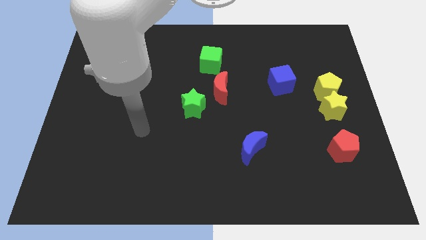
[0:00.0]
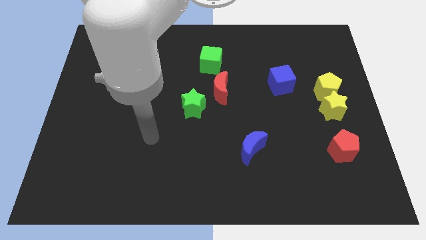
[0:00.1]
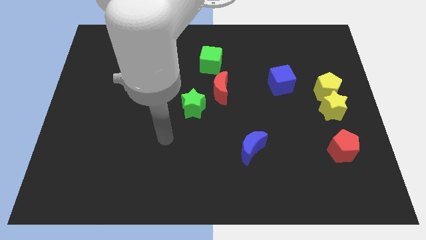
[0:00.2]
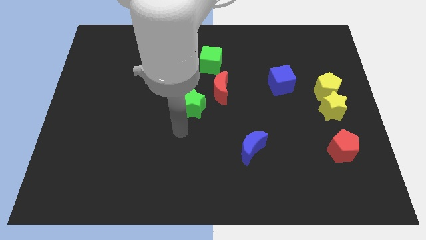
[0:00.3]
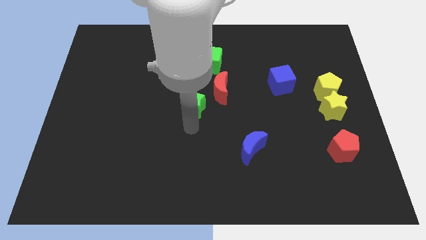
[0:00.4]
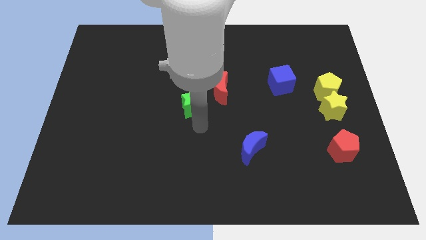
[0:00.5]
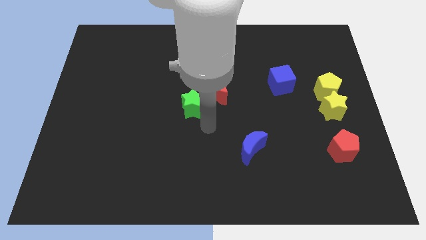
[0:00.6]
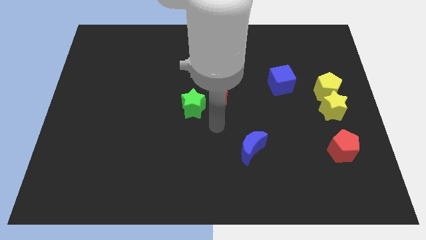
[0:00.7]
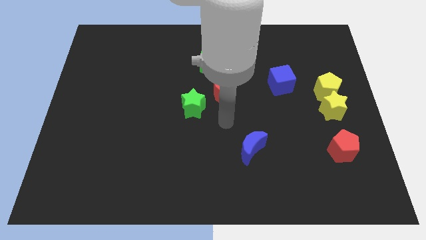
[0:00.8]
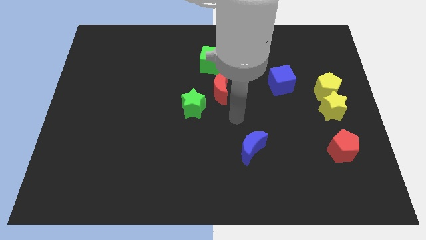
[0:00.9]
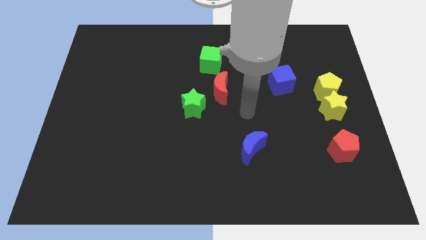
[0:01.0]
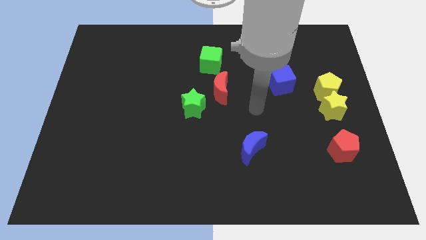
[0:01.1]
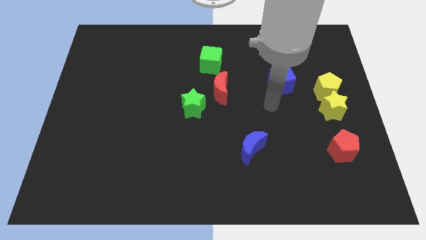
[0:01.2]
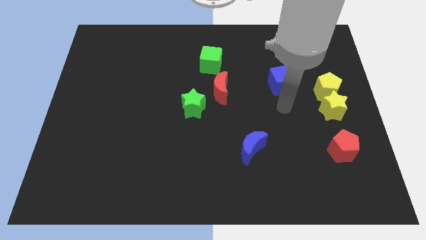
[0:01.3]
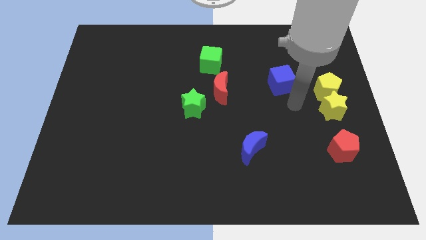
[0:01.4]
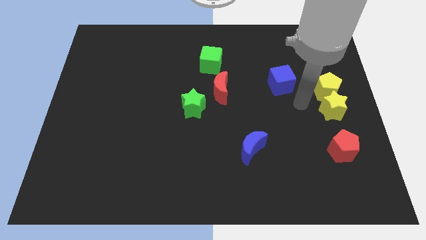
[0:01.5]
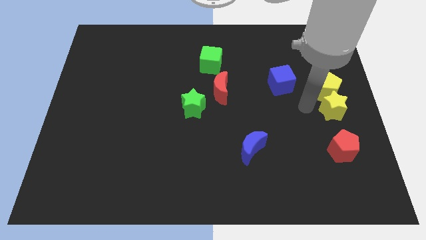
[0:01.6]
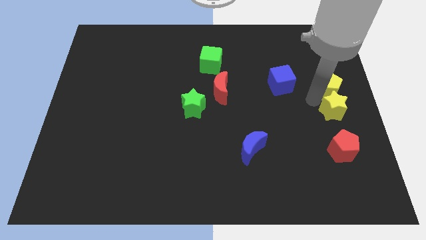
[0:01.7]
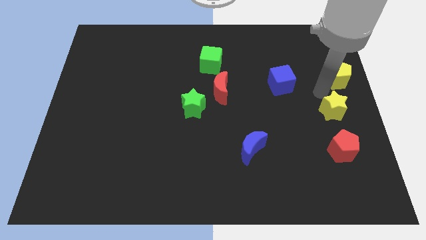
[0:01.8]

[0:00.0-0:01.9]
move the yellow star away from the yellow pentagon

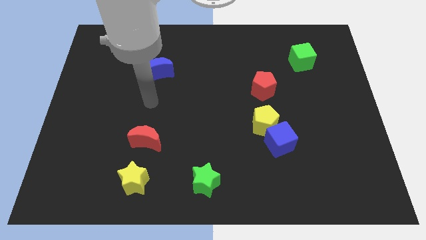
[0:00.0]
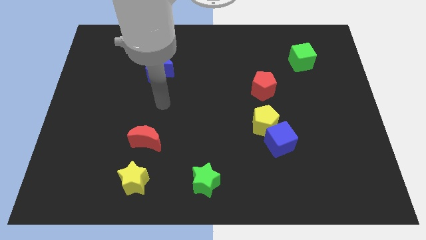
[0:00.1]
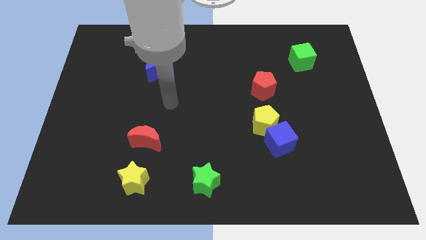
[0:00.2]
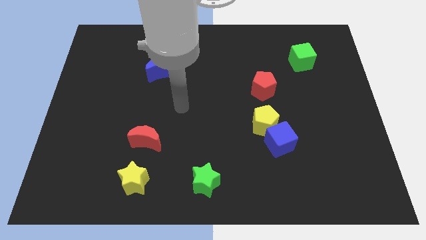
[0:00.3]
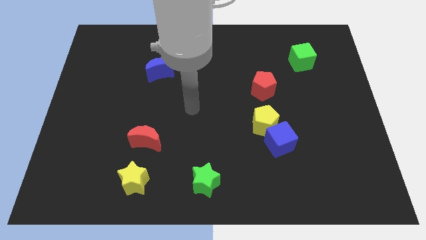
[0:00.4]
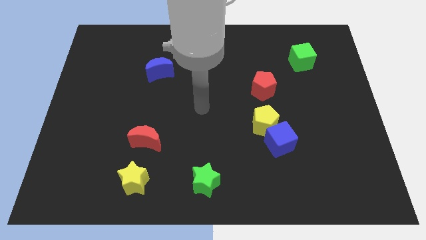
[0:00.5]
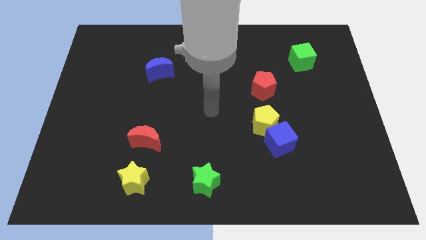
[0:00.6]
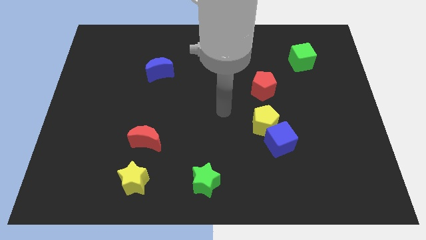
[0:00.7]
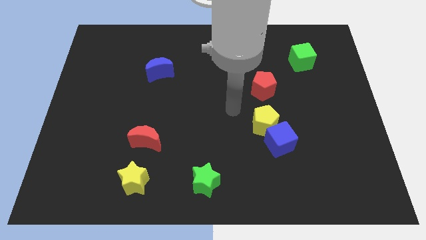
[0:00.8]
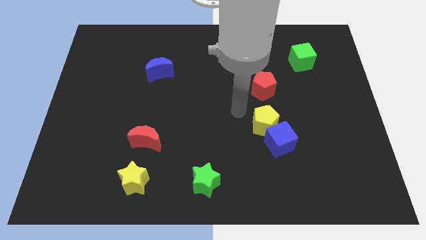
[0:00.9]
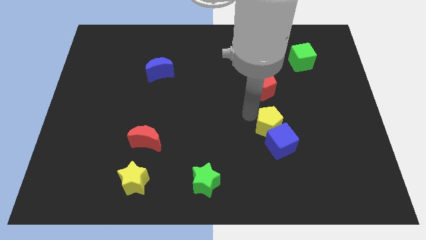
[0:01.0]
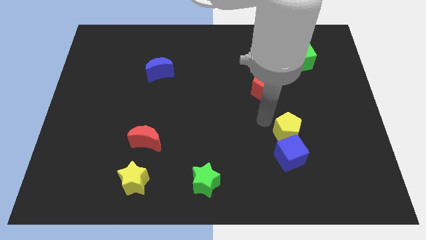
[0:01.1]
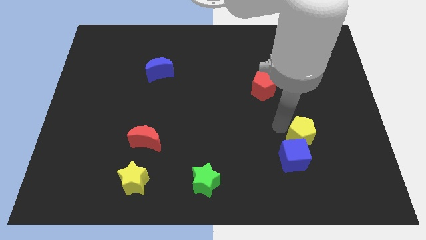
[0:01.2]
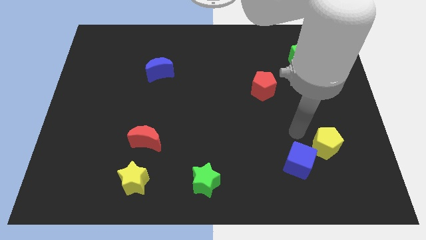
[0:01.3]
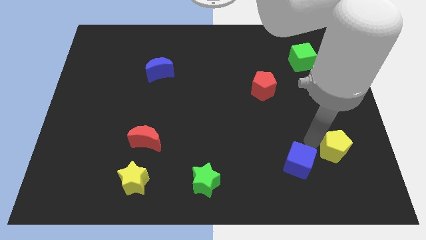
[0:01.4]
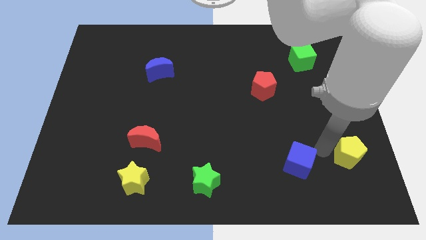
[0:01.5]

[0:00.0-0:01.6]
move the blue cube away from the yellow pentagon

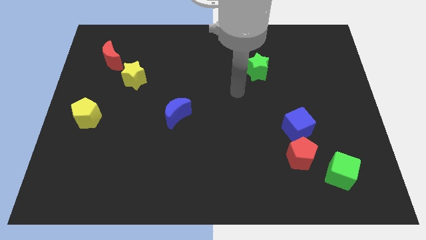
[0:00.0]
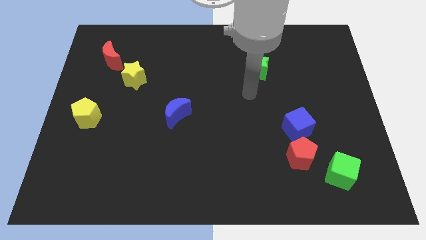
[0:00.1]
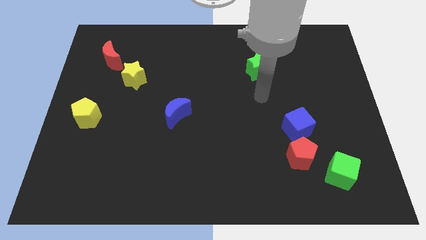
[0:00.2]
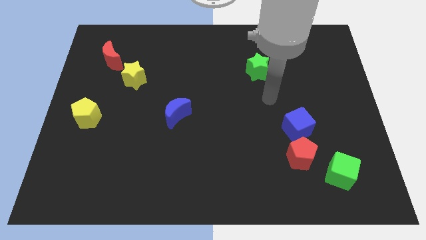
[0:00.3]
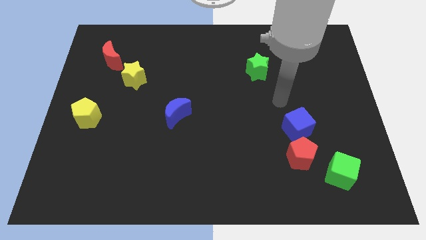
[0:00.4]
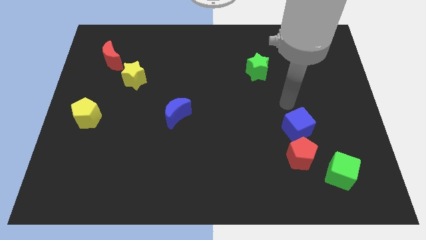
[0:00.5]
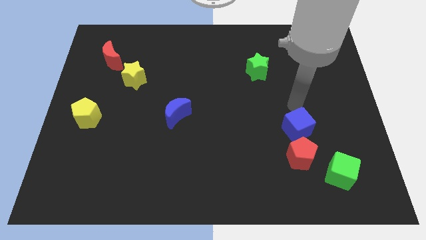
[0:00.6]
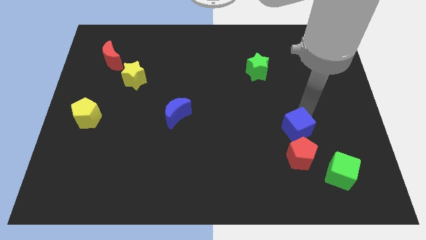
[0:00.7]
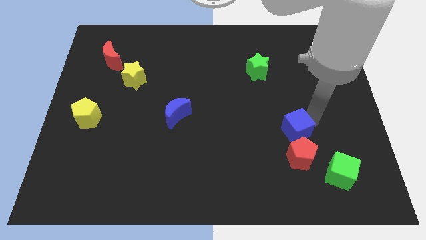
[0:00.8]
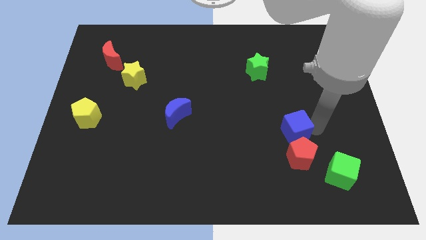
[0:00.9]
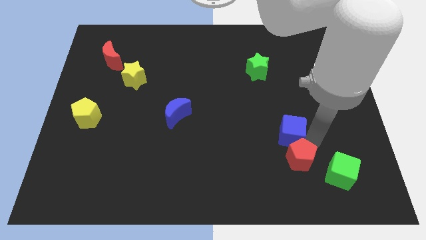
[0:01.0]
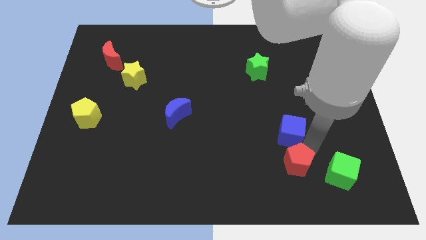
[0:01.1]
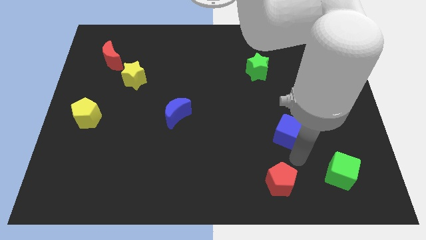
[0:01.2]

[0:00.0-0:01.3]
separate the blue cube from the red pentagon

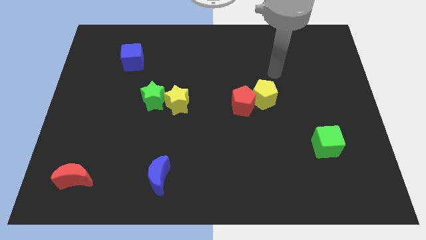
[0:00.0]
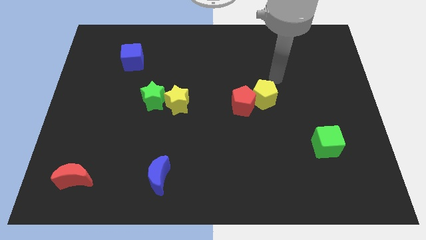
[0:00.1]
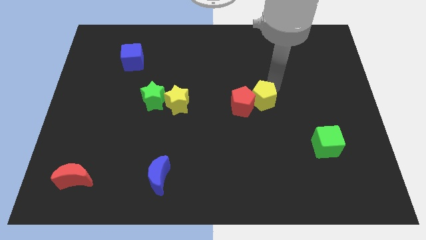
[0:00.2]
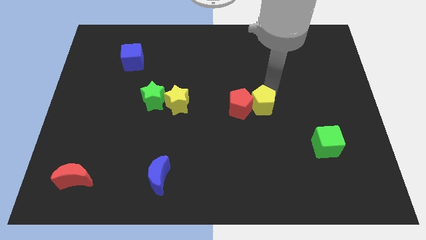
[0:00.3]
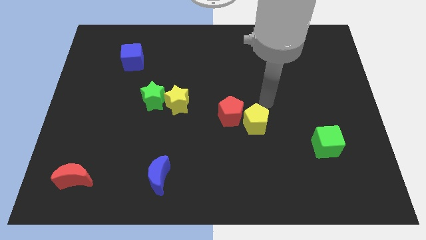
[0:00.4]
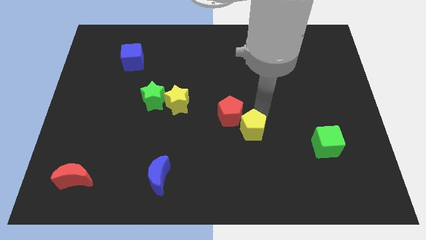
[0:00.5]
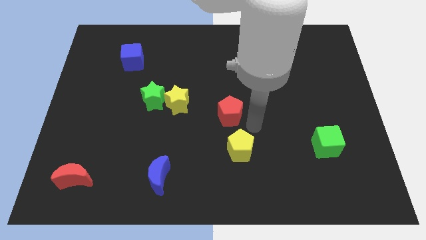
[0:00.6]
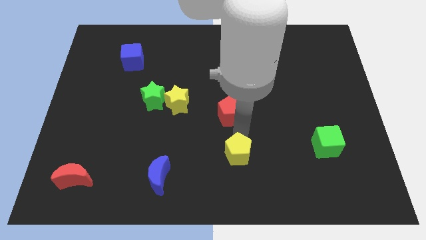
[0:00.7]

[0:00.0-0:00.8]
separate the red pentagon from the yellow pentagon

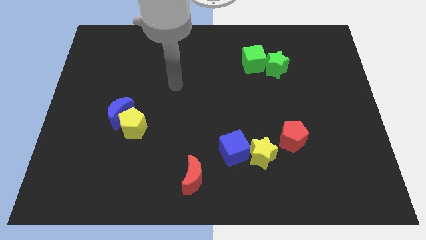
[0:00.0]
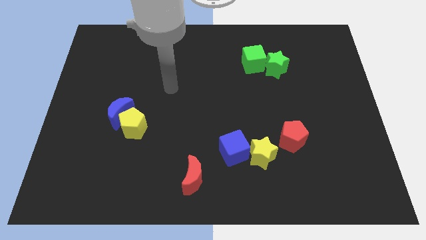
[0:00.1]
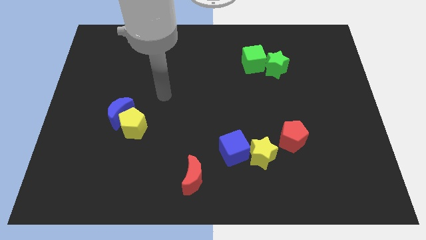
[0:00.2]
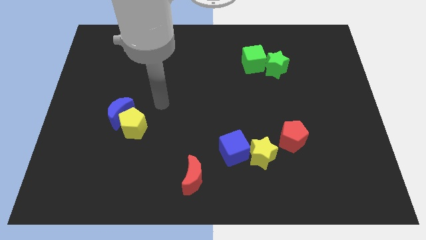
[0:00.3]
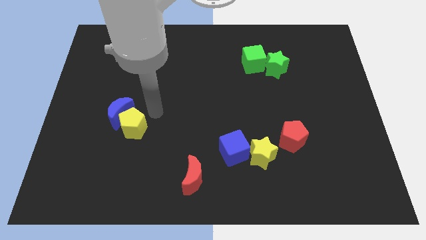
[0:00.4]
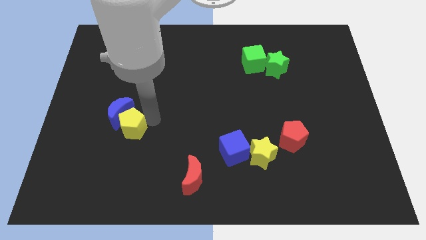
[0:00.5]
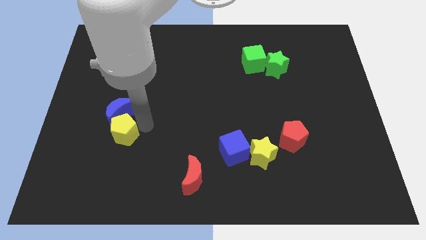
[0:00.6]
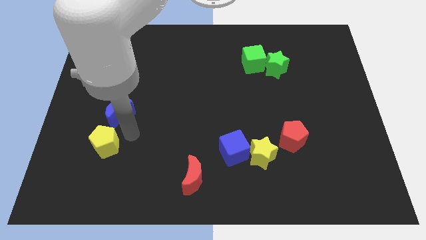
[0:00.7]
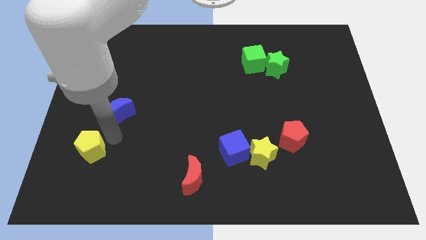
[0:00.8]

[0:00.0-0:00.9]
move the blue moon away from the yellow pentagon

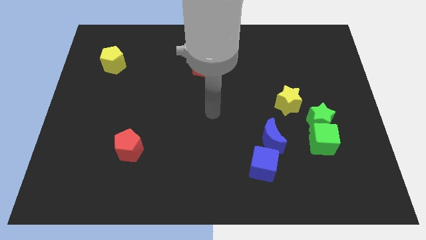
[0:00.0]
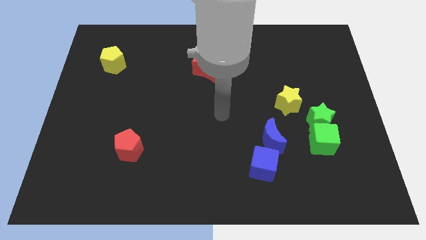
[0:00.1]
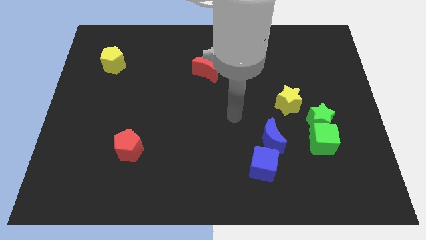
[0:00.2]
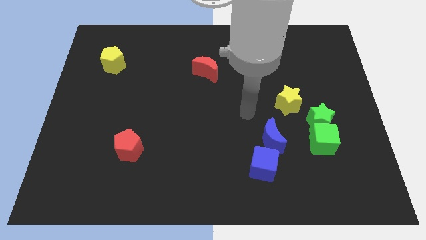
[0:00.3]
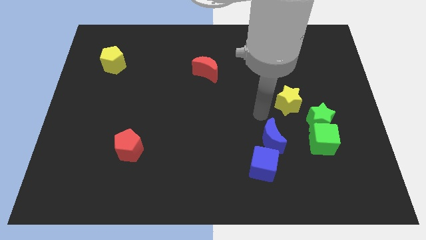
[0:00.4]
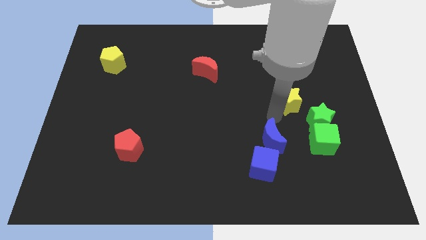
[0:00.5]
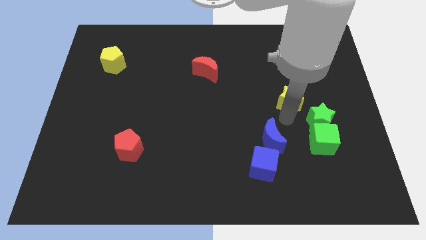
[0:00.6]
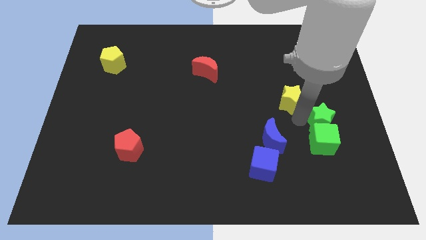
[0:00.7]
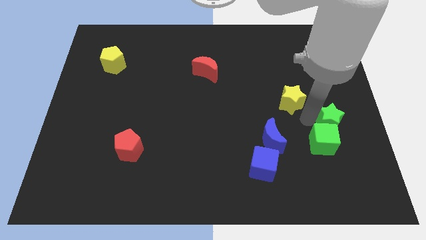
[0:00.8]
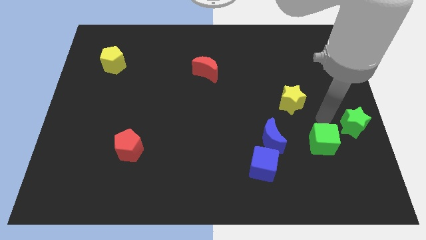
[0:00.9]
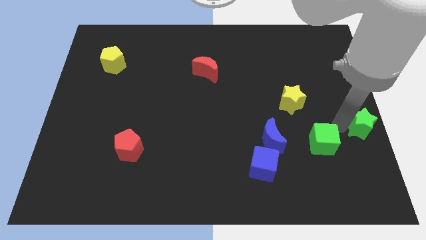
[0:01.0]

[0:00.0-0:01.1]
move the green cube away from the green star

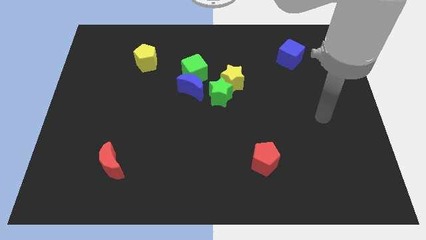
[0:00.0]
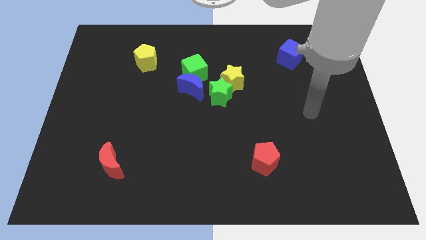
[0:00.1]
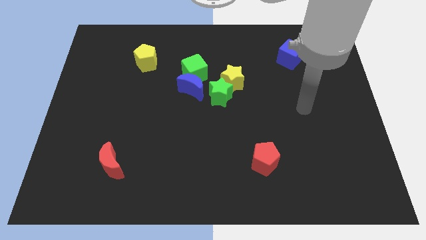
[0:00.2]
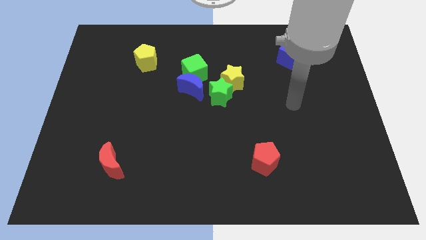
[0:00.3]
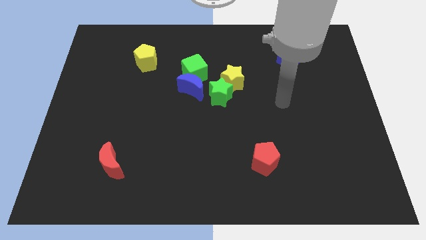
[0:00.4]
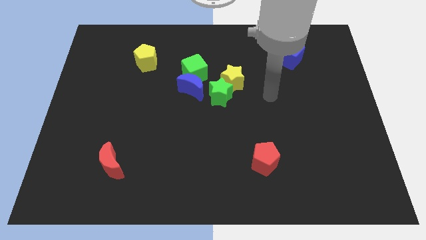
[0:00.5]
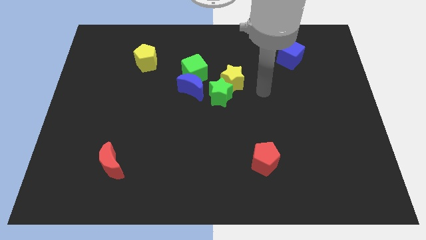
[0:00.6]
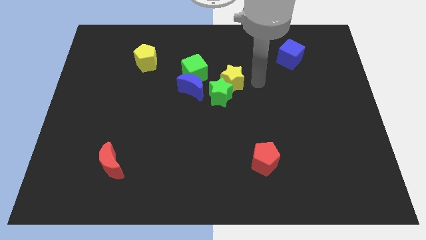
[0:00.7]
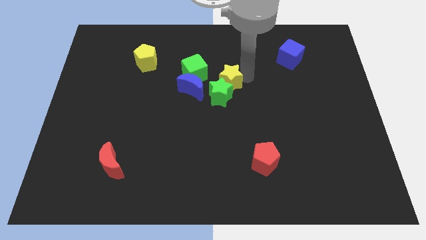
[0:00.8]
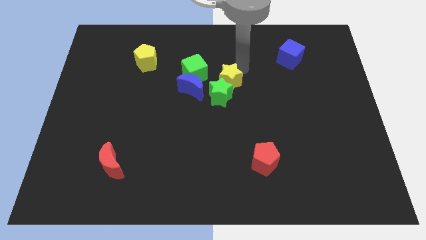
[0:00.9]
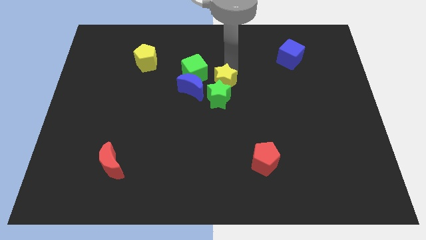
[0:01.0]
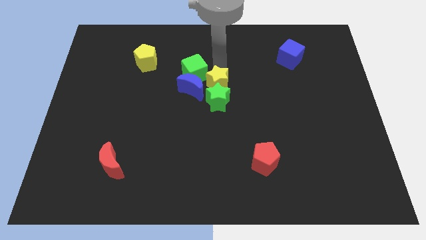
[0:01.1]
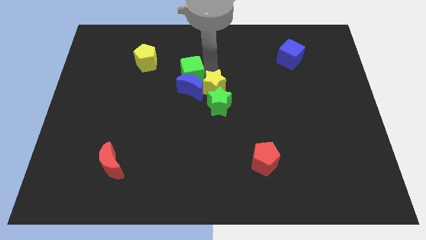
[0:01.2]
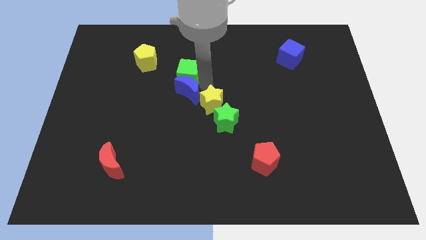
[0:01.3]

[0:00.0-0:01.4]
move the green star away from the yellow star, blue moon, and green cube

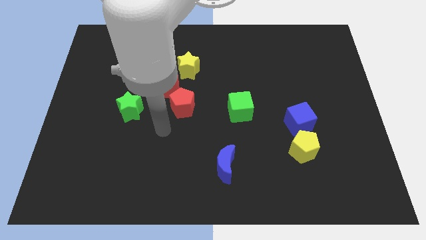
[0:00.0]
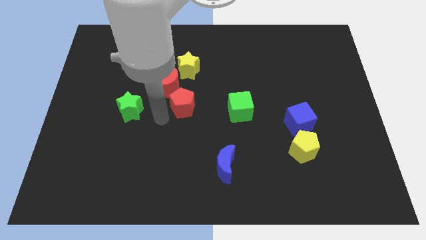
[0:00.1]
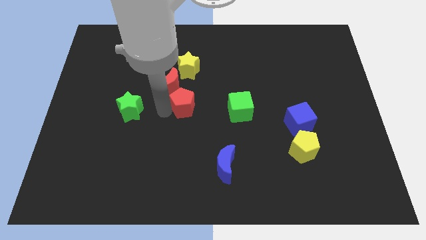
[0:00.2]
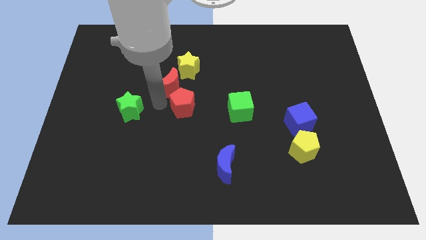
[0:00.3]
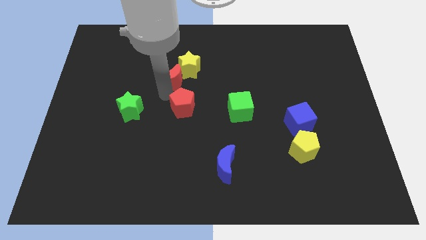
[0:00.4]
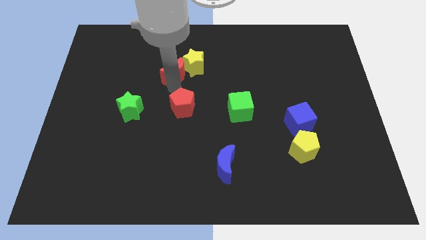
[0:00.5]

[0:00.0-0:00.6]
pull the red pentagon apart from the red moon
